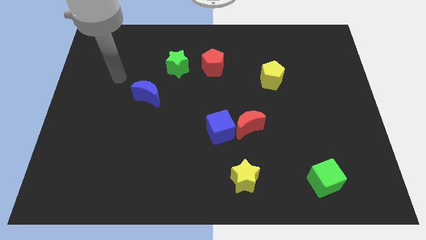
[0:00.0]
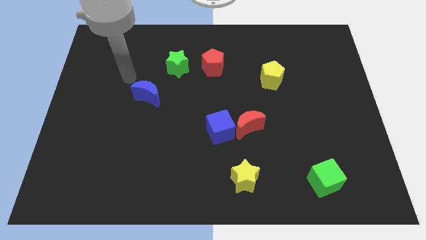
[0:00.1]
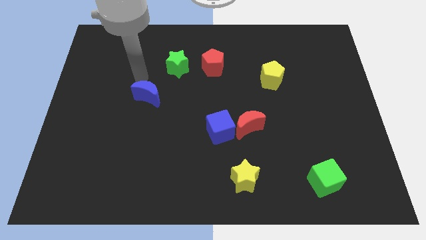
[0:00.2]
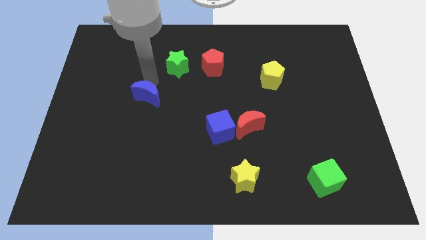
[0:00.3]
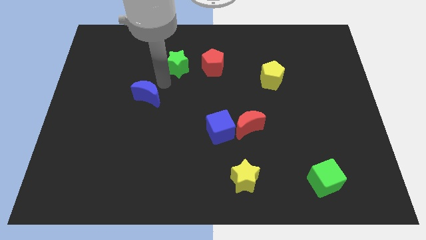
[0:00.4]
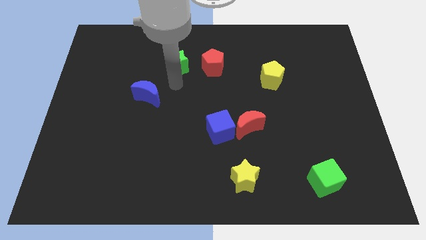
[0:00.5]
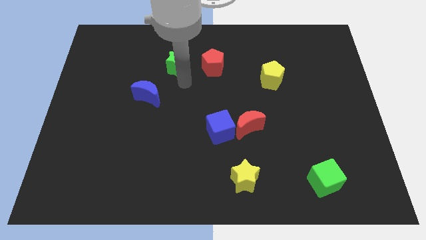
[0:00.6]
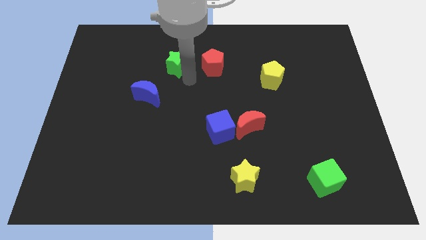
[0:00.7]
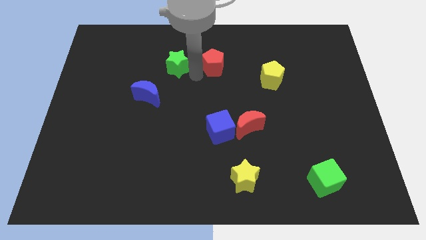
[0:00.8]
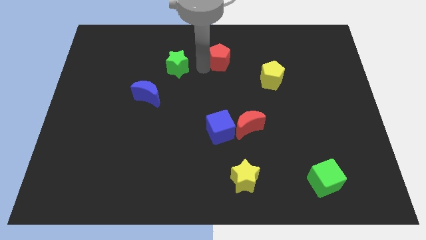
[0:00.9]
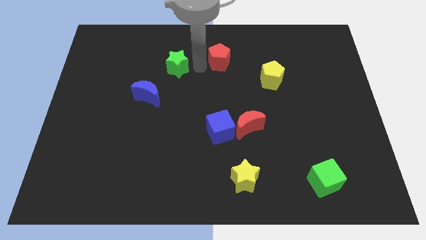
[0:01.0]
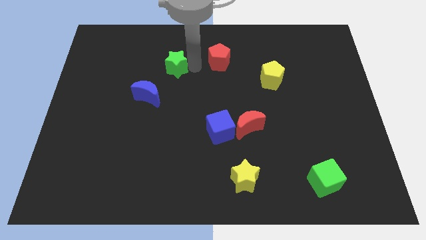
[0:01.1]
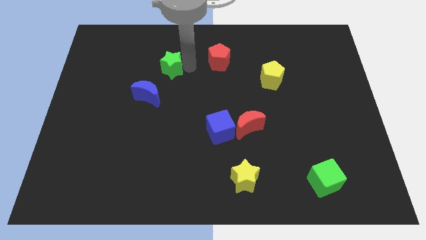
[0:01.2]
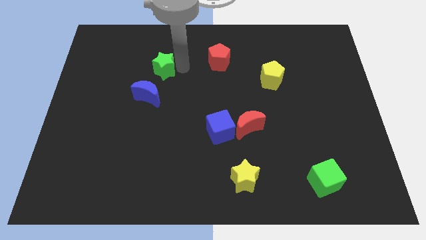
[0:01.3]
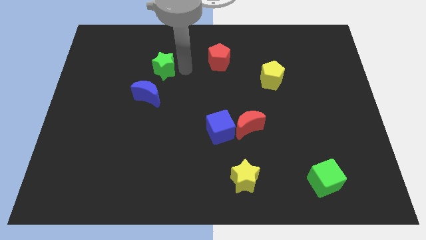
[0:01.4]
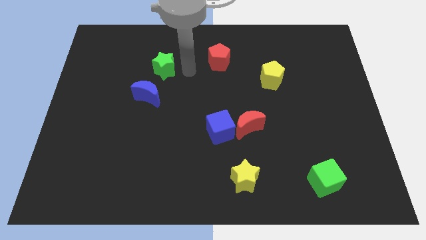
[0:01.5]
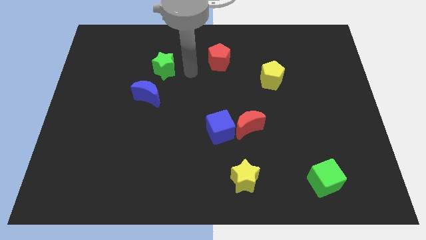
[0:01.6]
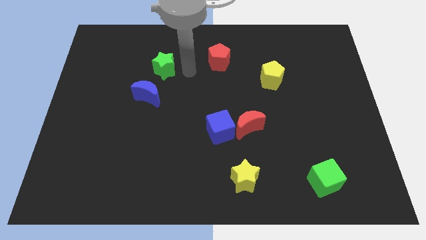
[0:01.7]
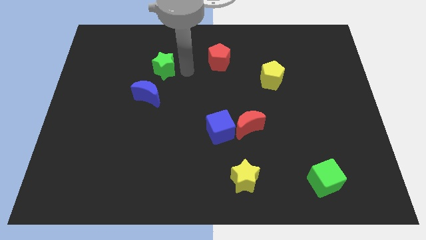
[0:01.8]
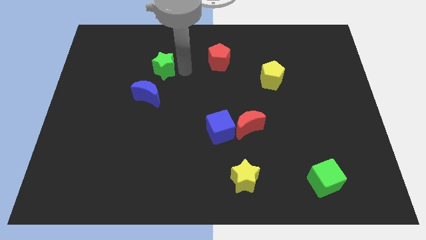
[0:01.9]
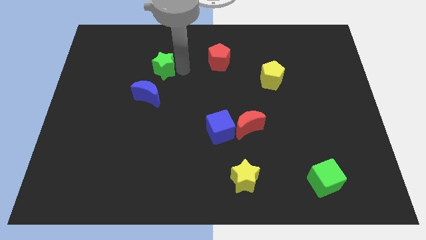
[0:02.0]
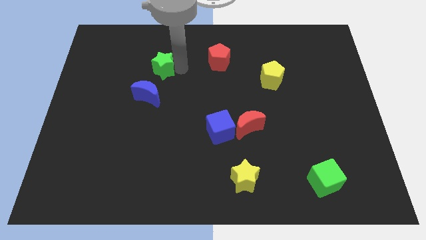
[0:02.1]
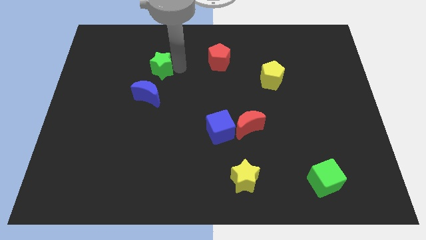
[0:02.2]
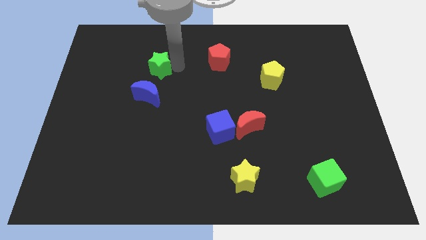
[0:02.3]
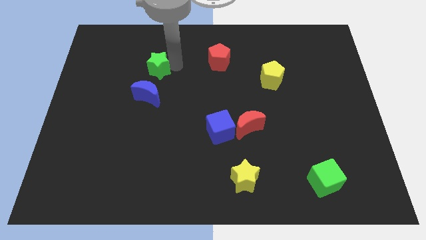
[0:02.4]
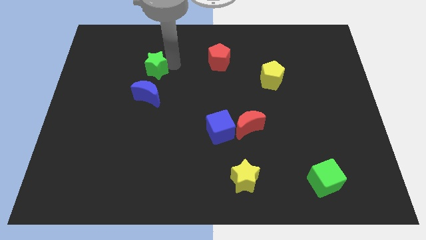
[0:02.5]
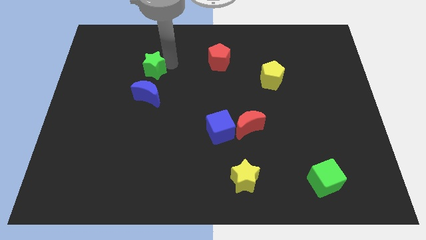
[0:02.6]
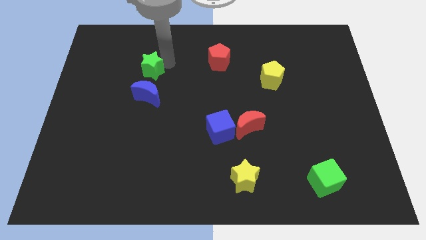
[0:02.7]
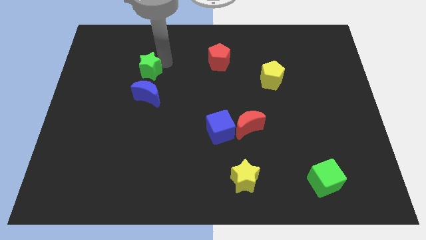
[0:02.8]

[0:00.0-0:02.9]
move the green star to the left somewhat

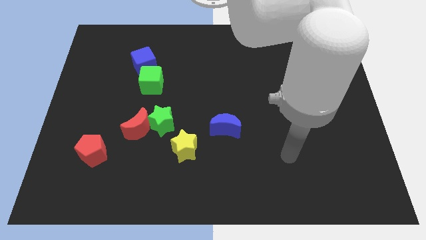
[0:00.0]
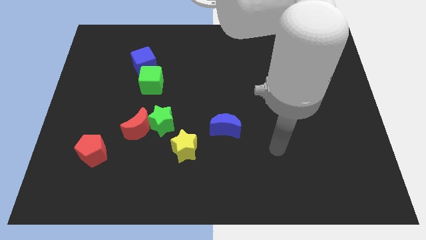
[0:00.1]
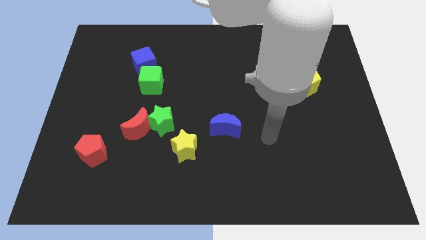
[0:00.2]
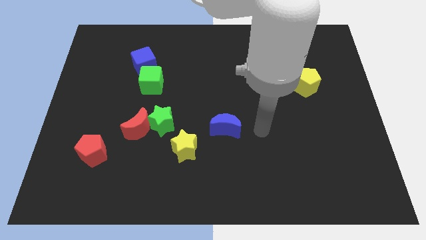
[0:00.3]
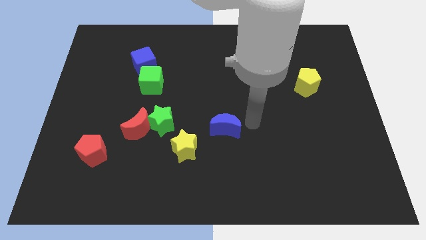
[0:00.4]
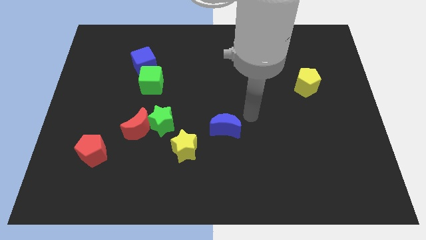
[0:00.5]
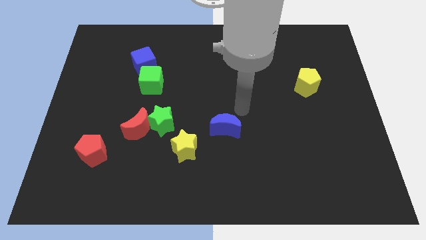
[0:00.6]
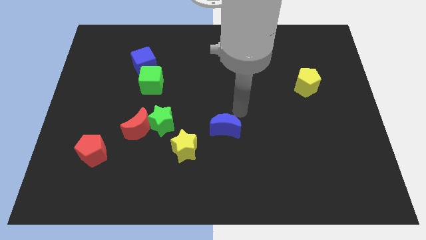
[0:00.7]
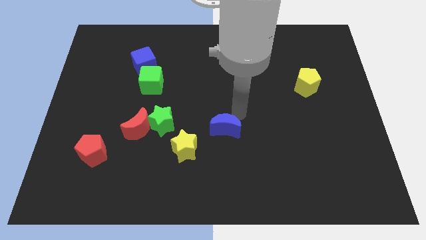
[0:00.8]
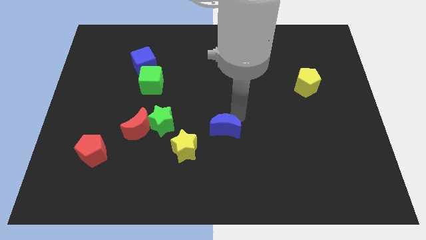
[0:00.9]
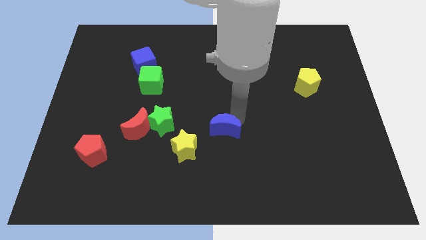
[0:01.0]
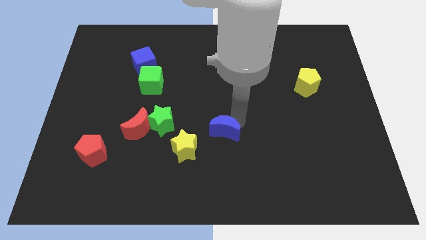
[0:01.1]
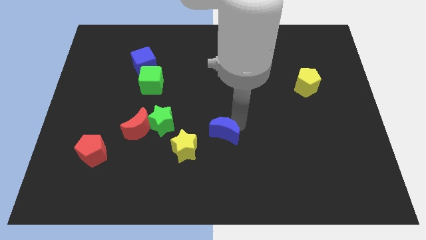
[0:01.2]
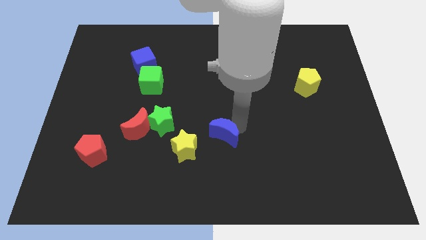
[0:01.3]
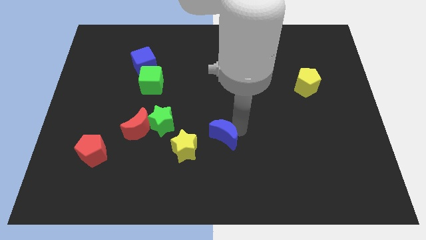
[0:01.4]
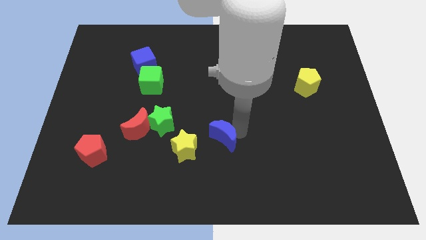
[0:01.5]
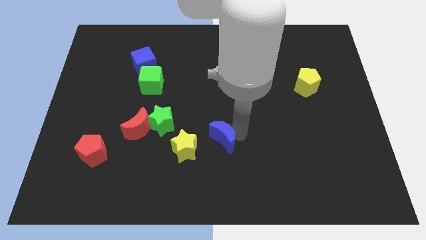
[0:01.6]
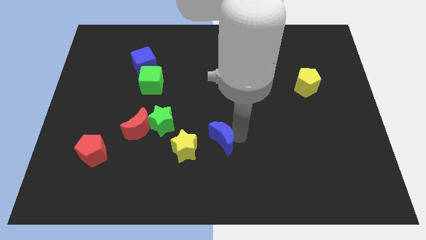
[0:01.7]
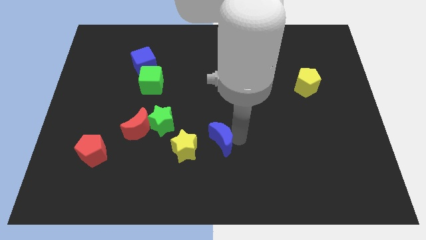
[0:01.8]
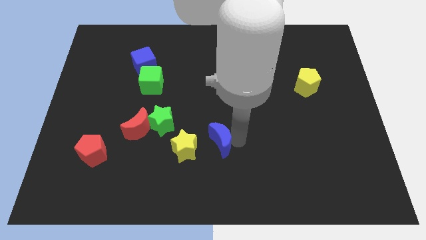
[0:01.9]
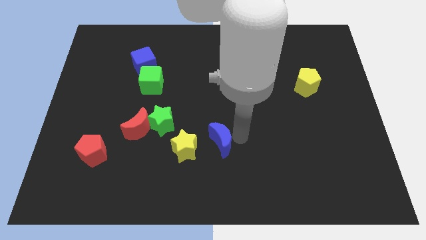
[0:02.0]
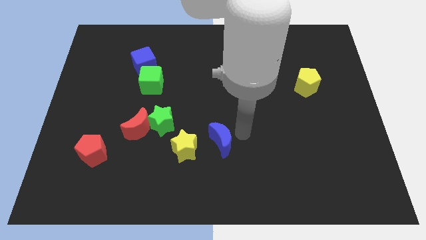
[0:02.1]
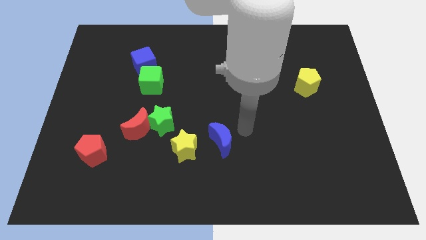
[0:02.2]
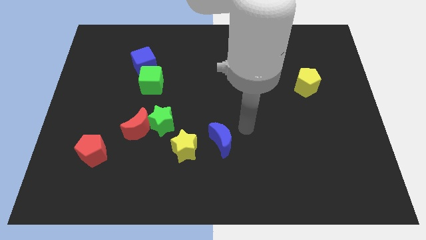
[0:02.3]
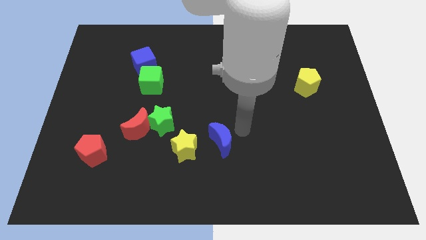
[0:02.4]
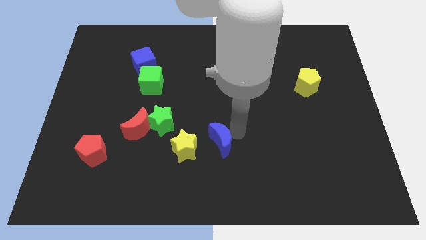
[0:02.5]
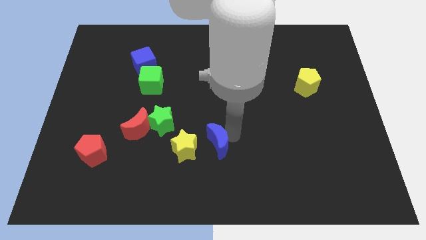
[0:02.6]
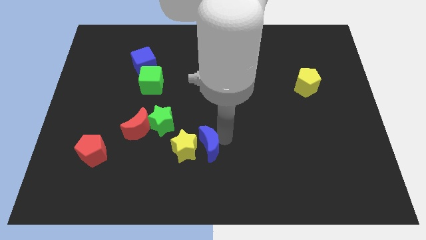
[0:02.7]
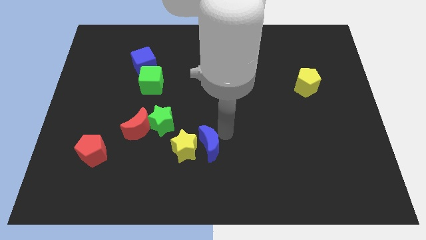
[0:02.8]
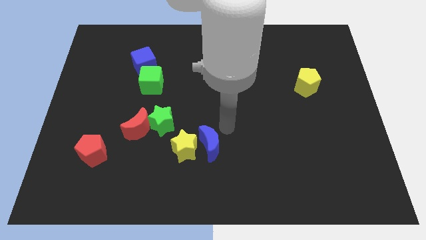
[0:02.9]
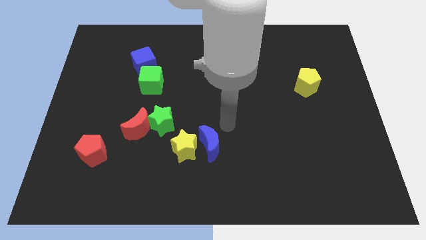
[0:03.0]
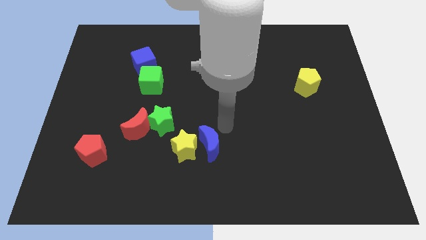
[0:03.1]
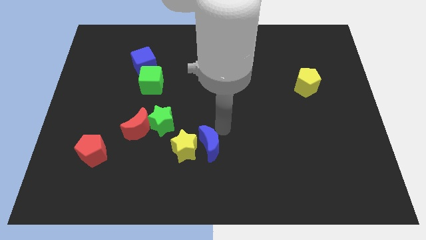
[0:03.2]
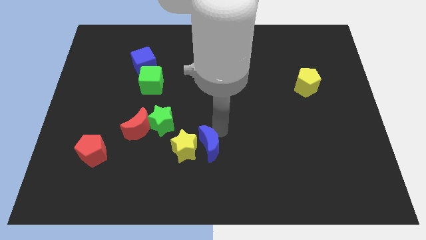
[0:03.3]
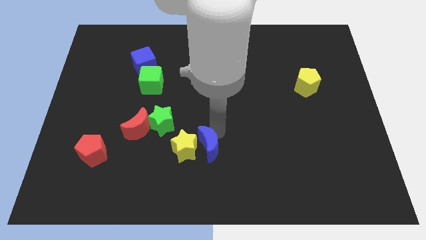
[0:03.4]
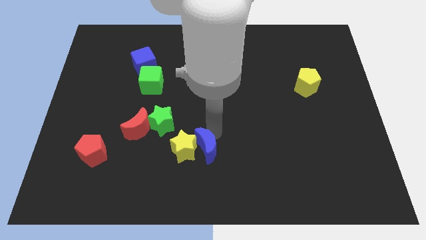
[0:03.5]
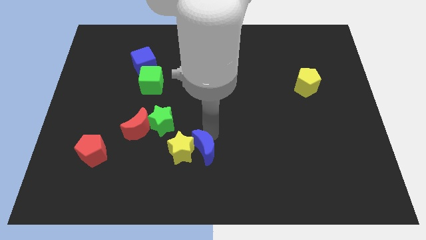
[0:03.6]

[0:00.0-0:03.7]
slightly push the blue moon down and to the left diagonally

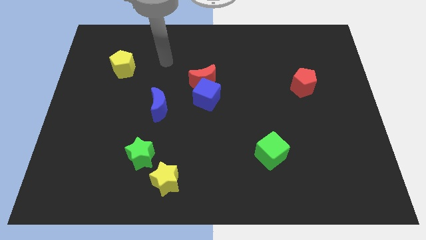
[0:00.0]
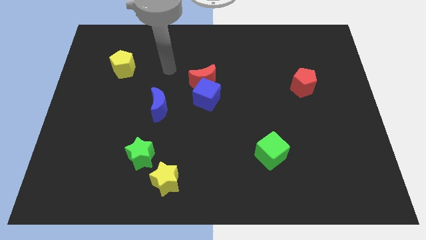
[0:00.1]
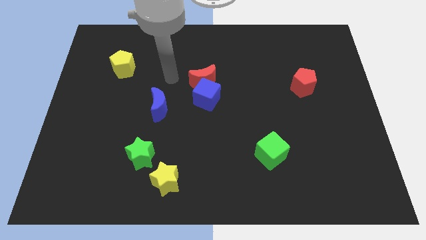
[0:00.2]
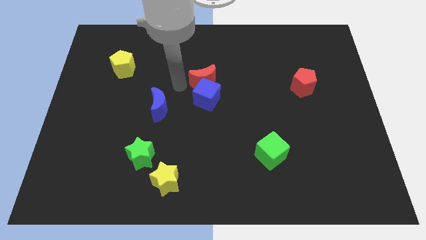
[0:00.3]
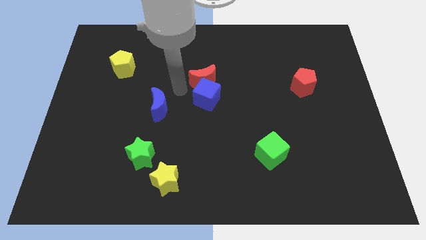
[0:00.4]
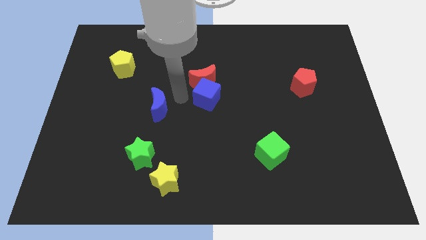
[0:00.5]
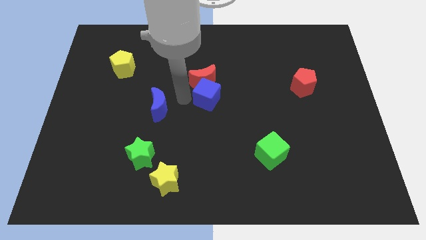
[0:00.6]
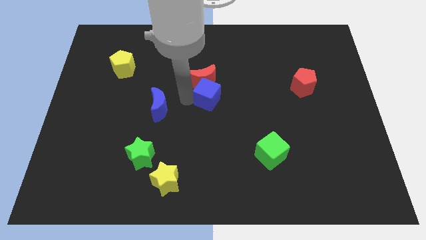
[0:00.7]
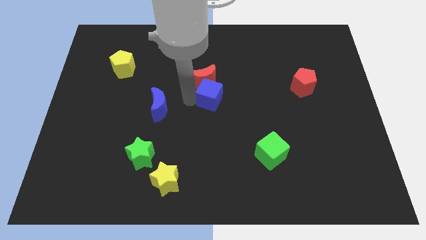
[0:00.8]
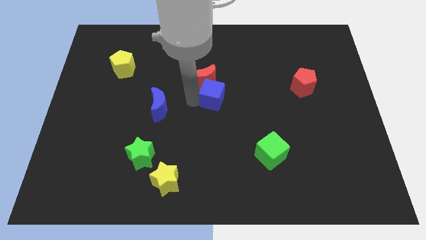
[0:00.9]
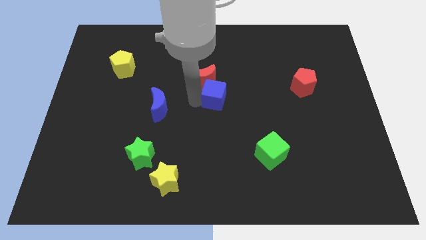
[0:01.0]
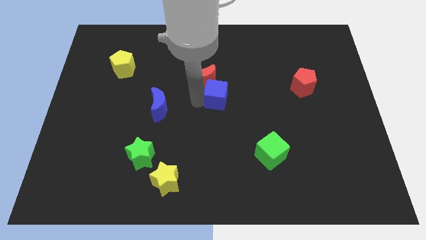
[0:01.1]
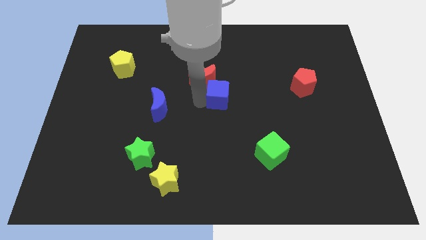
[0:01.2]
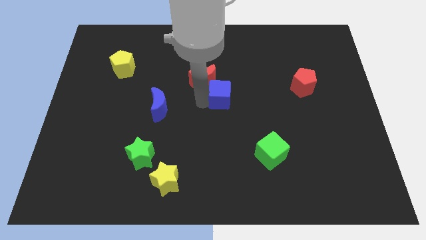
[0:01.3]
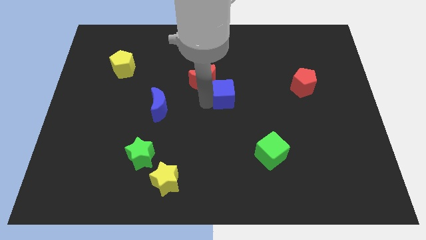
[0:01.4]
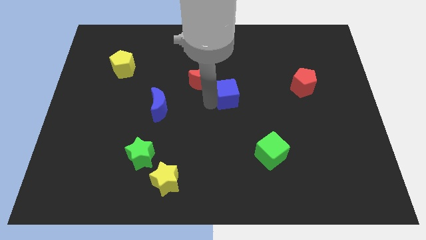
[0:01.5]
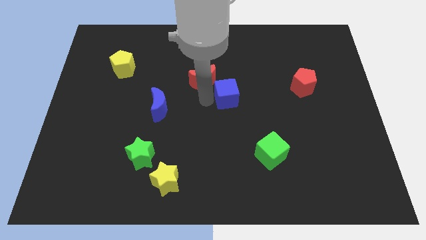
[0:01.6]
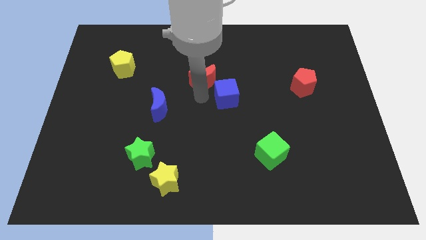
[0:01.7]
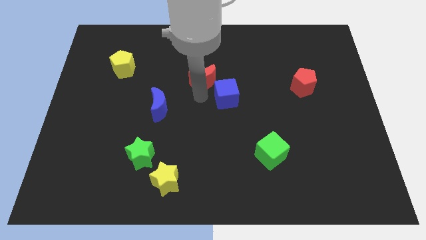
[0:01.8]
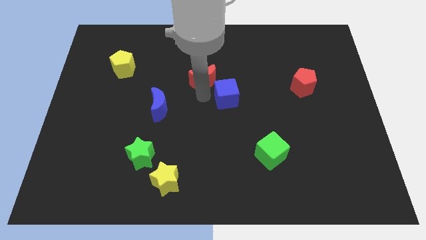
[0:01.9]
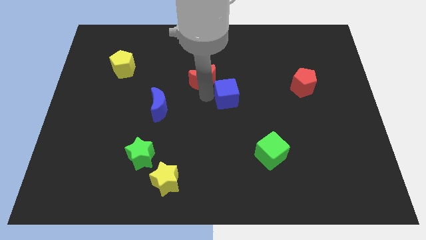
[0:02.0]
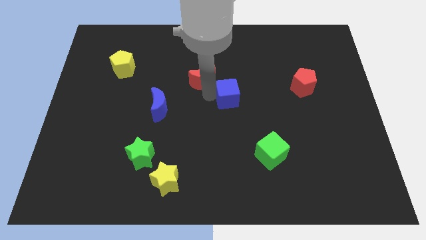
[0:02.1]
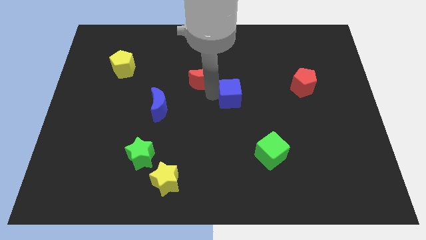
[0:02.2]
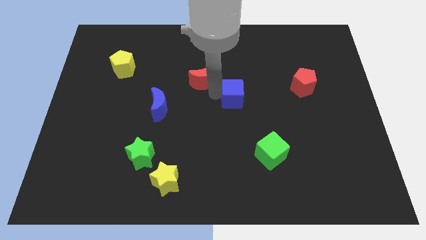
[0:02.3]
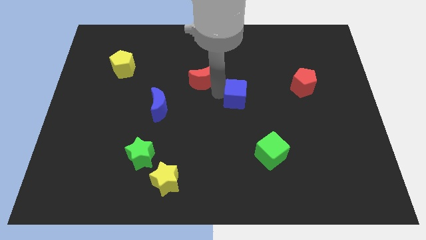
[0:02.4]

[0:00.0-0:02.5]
slide the blue cube slightly right
